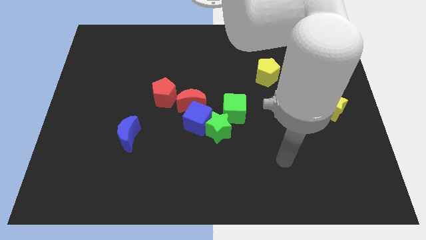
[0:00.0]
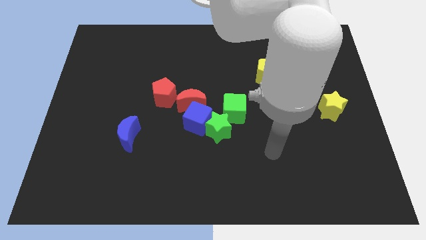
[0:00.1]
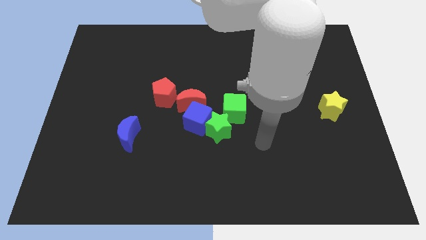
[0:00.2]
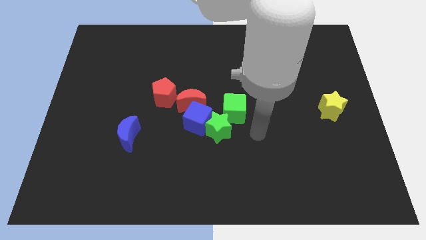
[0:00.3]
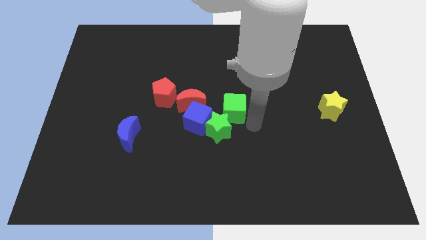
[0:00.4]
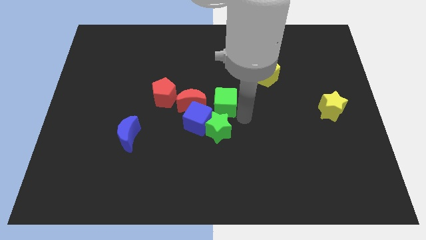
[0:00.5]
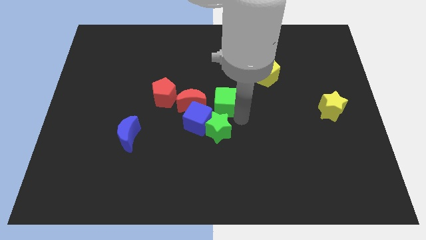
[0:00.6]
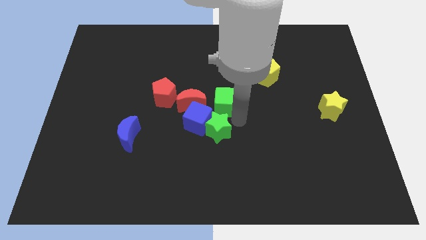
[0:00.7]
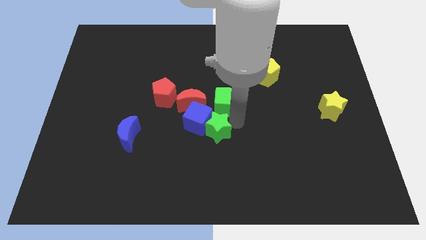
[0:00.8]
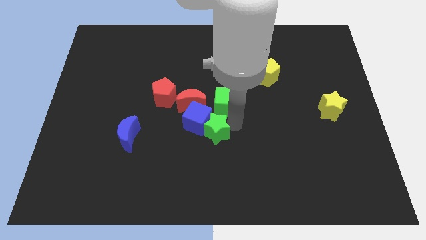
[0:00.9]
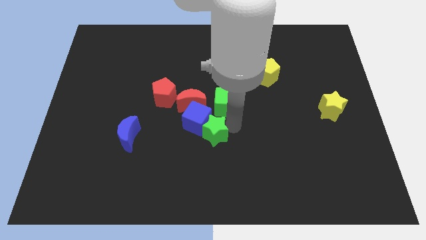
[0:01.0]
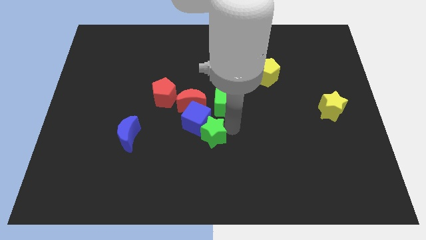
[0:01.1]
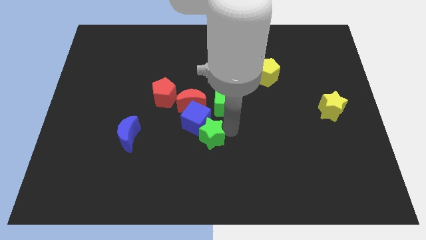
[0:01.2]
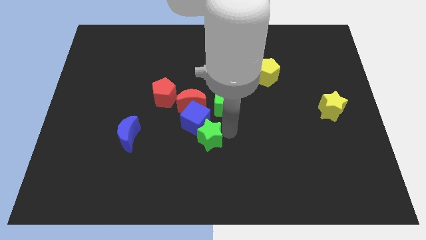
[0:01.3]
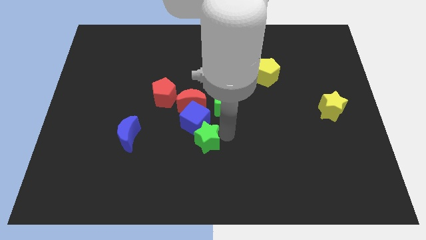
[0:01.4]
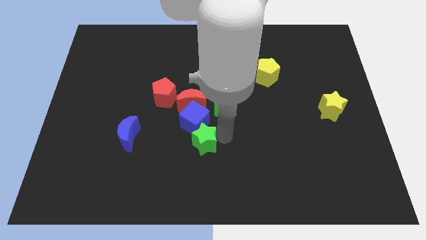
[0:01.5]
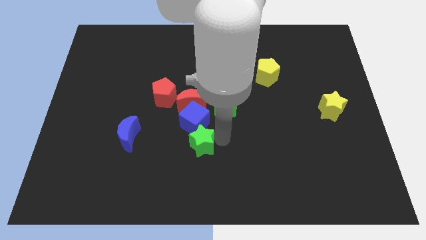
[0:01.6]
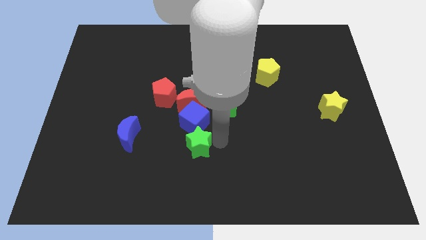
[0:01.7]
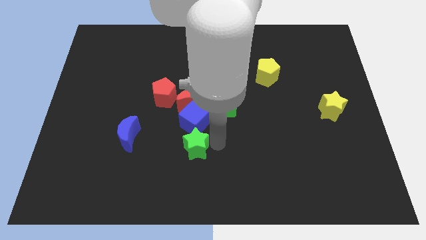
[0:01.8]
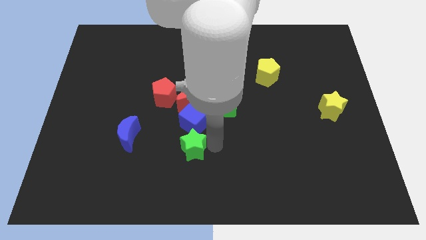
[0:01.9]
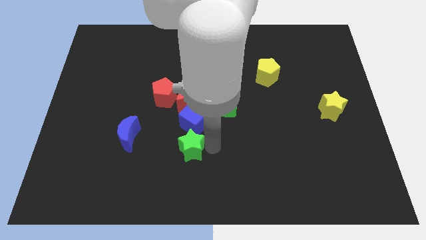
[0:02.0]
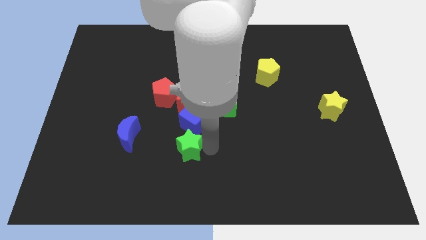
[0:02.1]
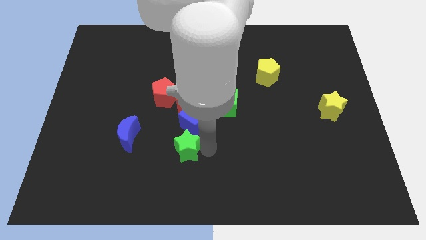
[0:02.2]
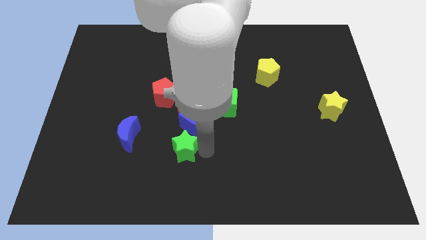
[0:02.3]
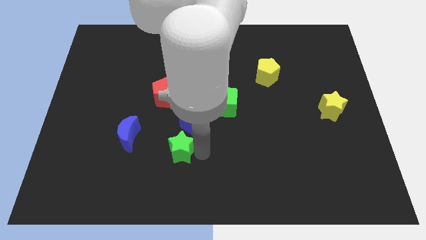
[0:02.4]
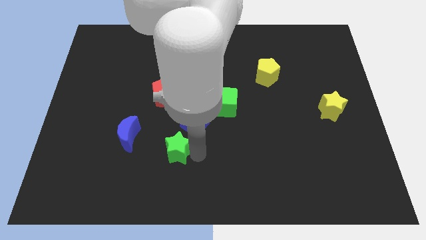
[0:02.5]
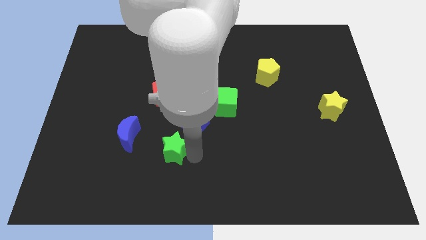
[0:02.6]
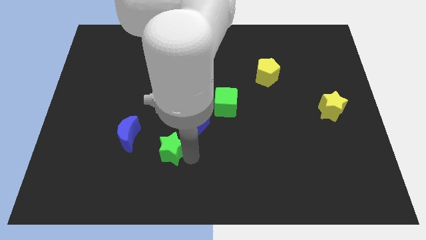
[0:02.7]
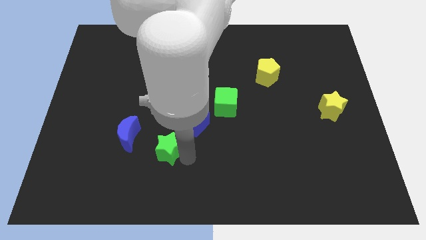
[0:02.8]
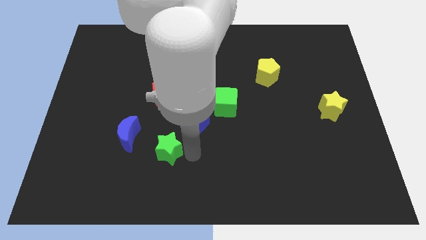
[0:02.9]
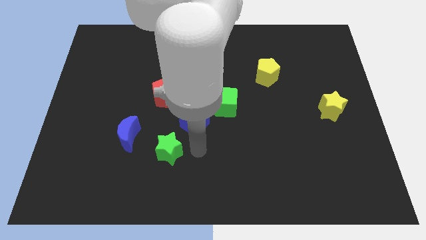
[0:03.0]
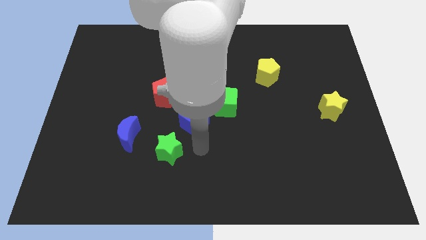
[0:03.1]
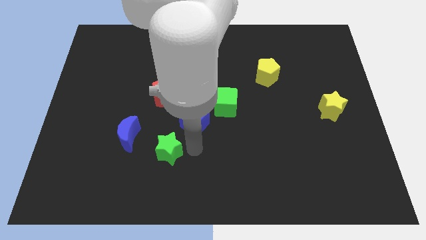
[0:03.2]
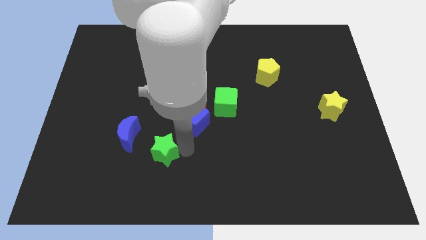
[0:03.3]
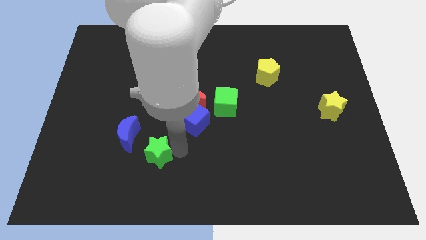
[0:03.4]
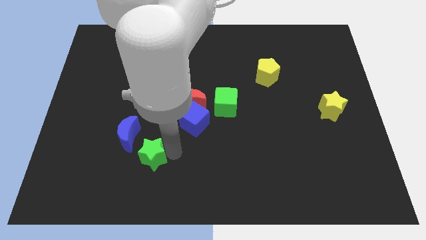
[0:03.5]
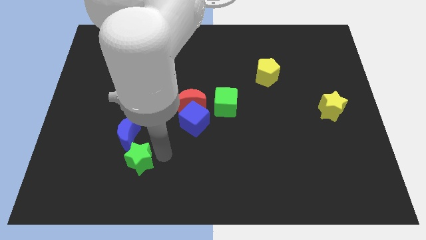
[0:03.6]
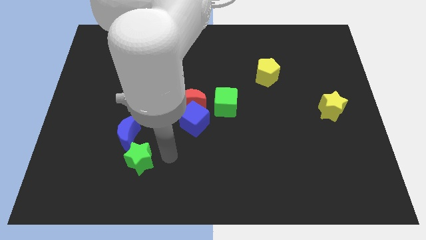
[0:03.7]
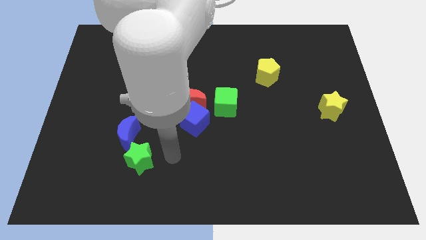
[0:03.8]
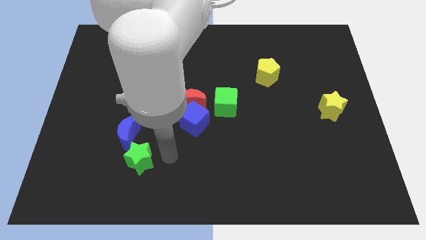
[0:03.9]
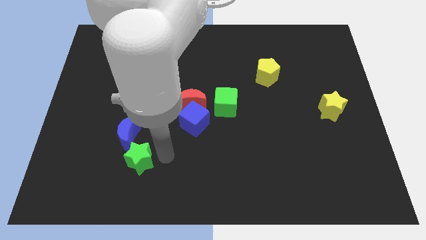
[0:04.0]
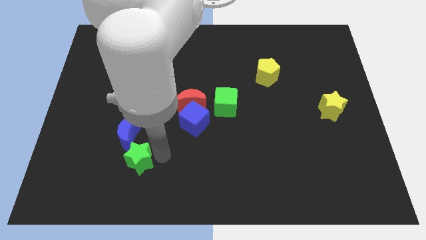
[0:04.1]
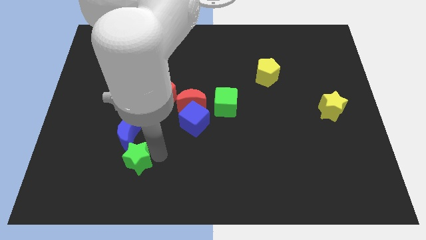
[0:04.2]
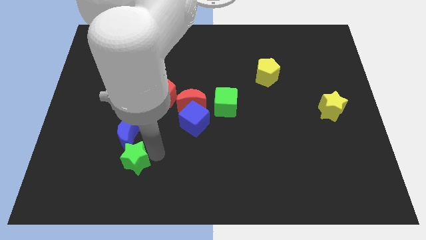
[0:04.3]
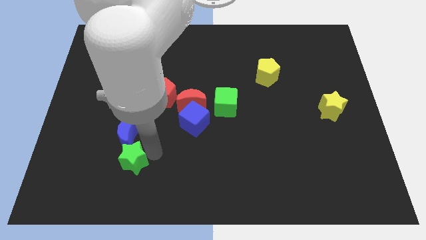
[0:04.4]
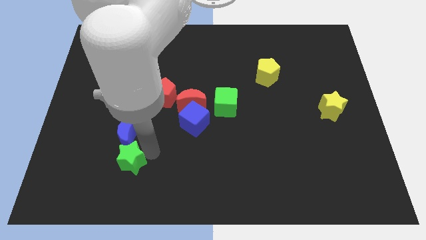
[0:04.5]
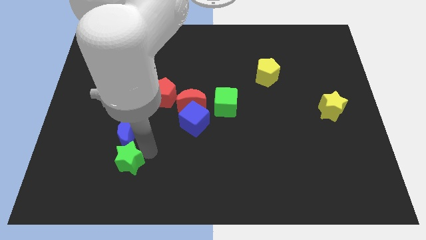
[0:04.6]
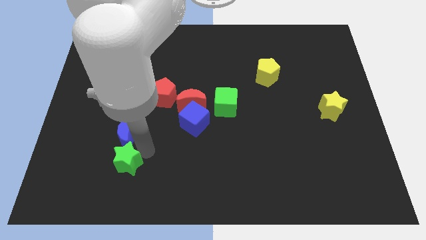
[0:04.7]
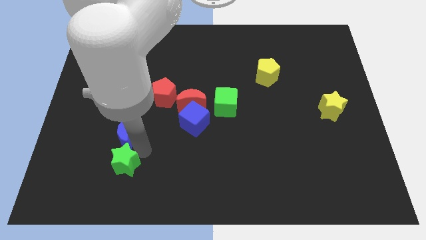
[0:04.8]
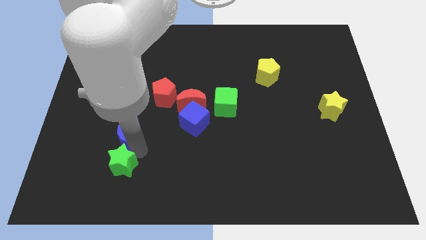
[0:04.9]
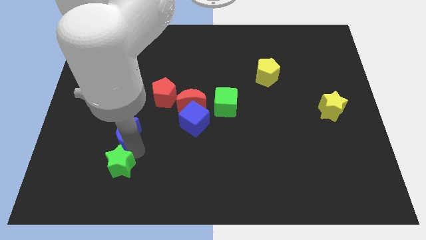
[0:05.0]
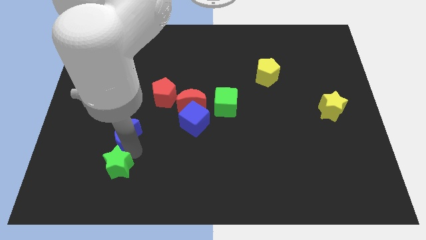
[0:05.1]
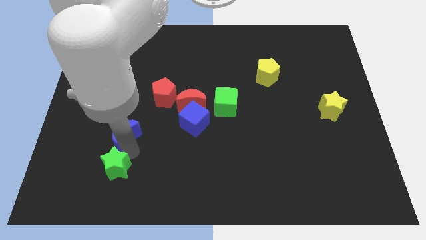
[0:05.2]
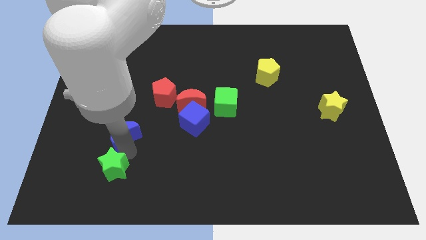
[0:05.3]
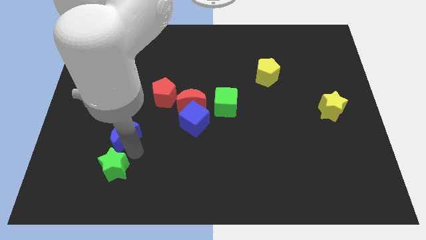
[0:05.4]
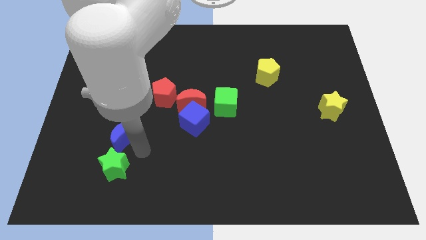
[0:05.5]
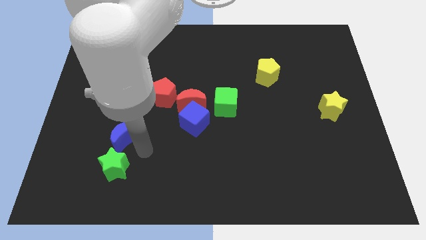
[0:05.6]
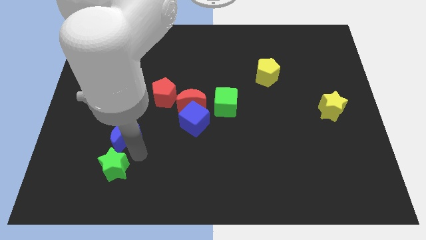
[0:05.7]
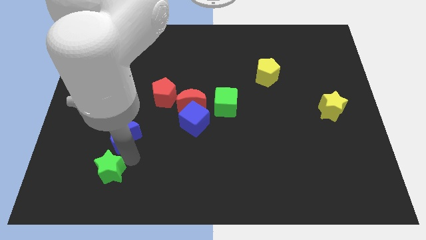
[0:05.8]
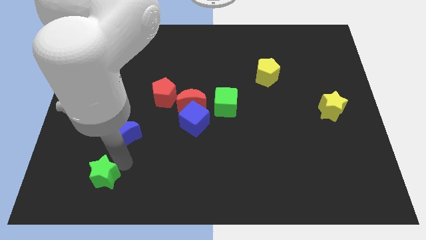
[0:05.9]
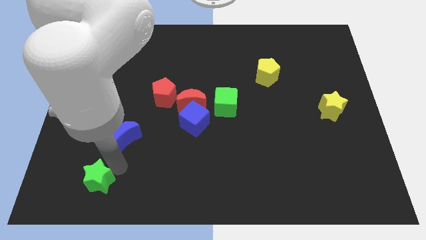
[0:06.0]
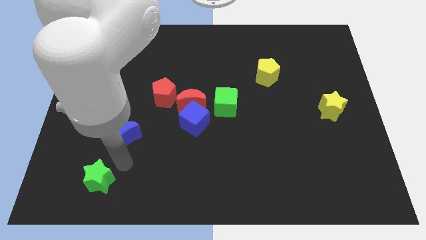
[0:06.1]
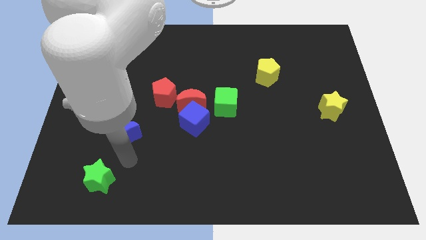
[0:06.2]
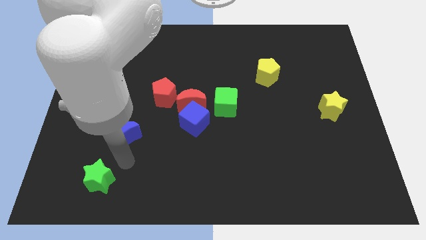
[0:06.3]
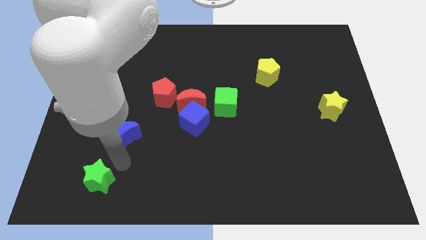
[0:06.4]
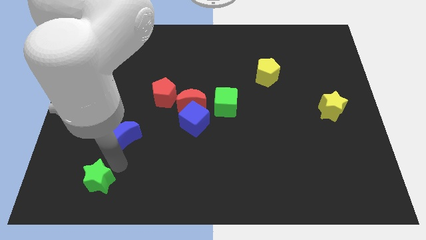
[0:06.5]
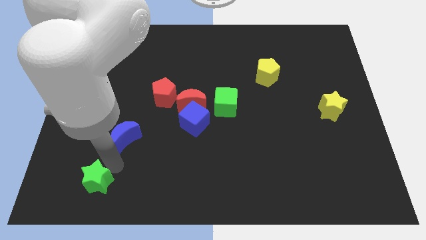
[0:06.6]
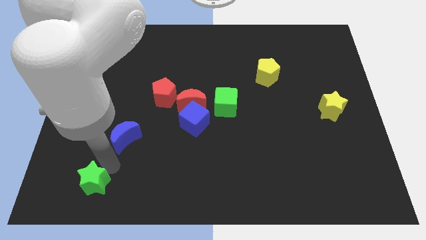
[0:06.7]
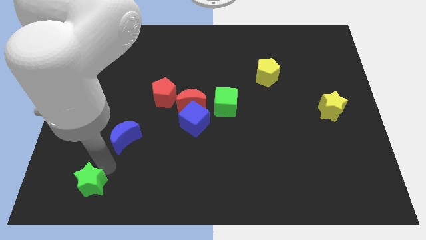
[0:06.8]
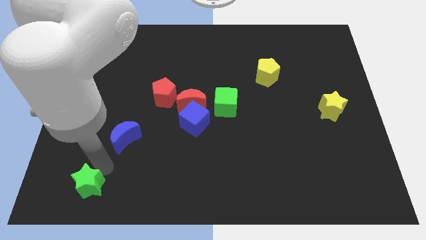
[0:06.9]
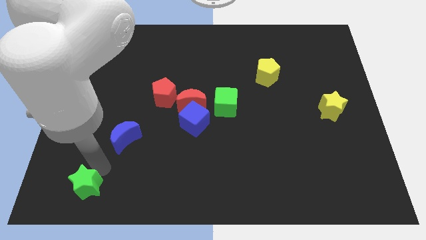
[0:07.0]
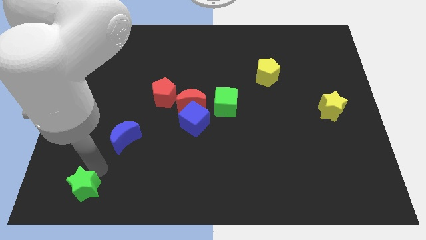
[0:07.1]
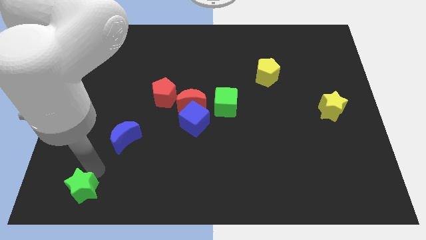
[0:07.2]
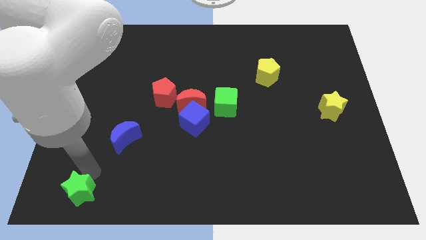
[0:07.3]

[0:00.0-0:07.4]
push the green star to the lower left corner
